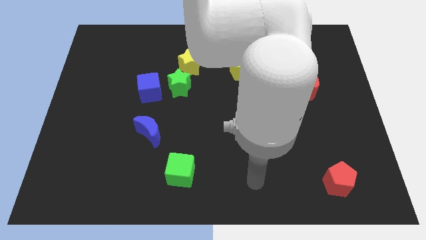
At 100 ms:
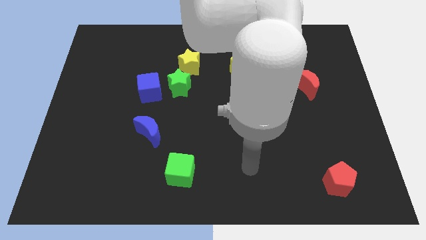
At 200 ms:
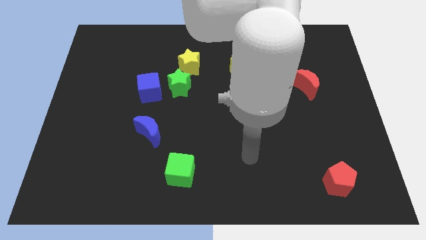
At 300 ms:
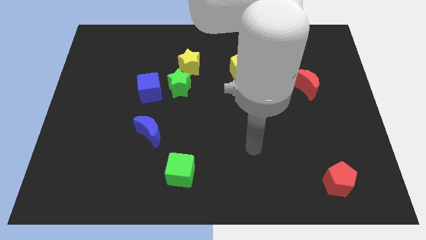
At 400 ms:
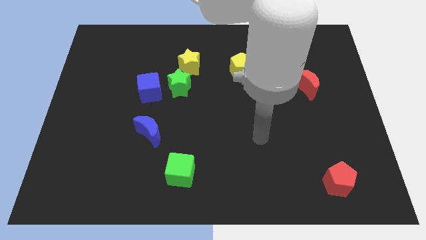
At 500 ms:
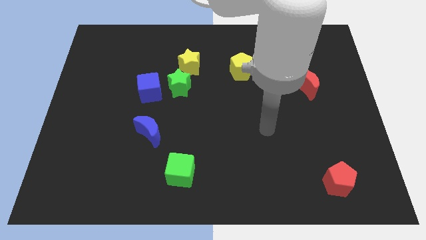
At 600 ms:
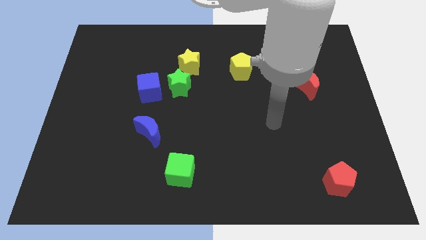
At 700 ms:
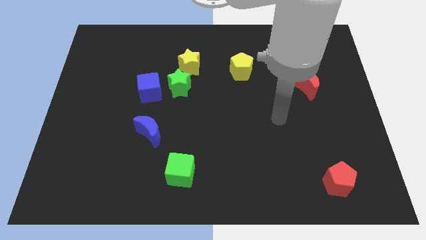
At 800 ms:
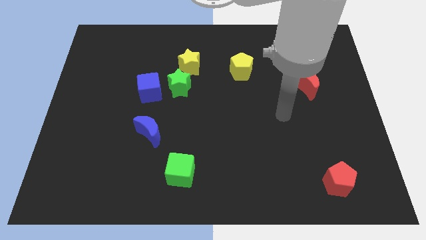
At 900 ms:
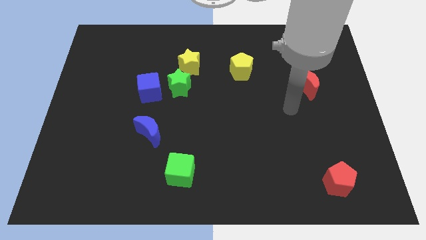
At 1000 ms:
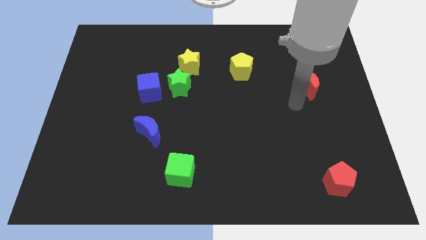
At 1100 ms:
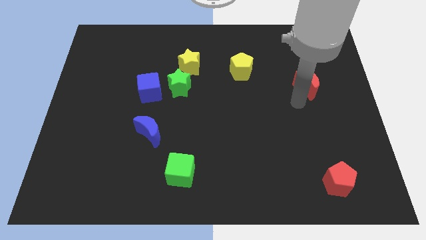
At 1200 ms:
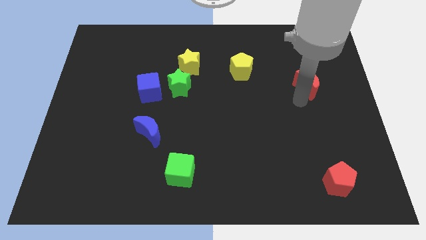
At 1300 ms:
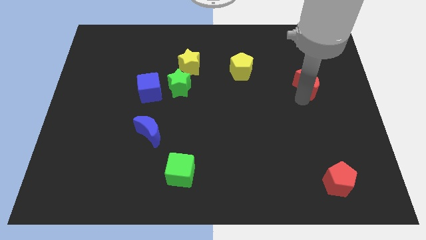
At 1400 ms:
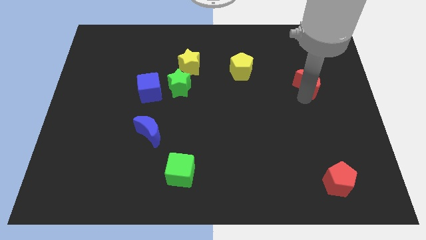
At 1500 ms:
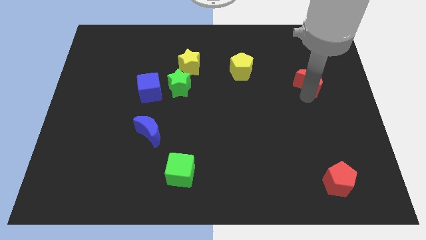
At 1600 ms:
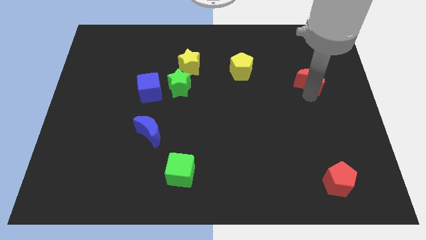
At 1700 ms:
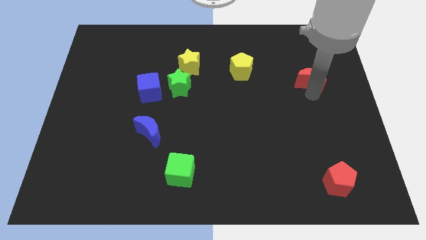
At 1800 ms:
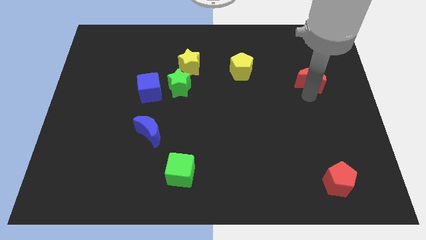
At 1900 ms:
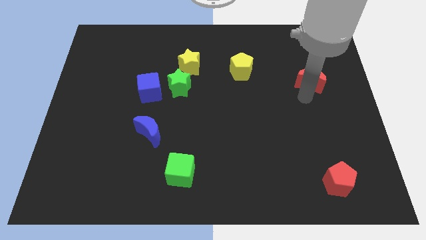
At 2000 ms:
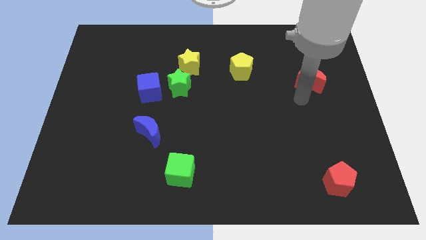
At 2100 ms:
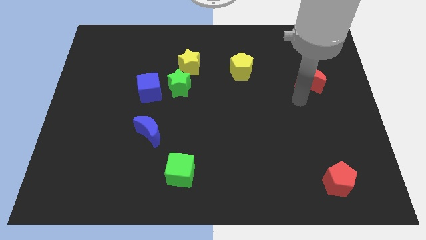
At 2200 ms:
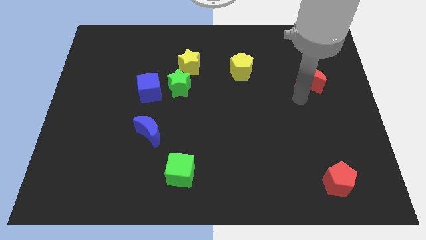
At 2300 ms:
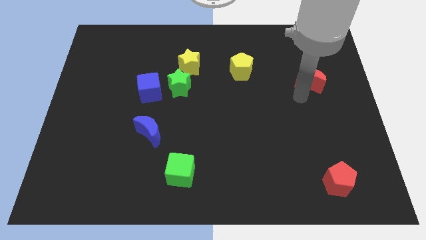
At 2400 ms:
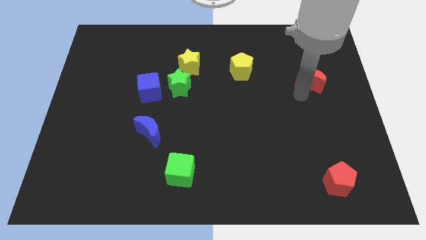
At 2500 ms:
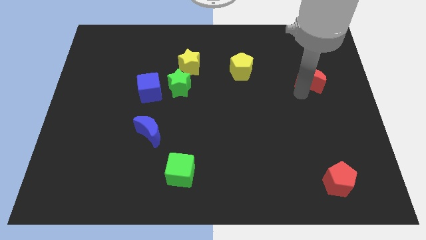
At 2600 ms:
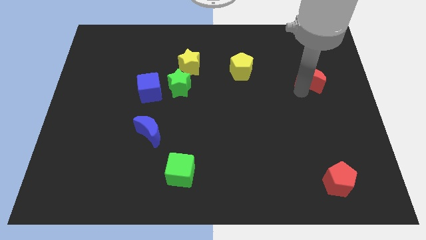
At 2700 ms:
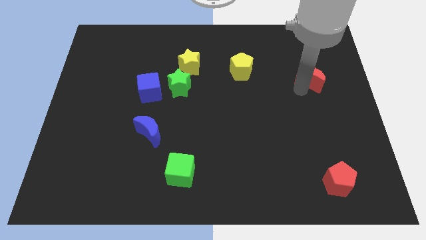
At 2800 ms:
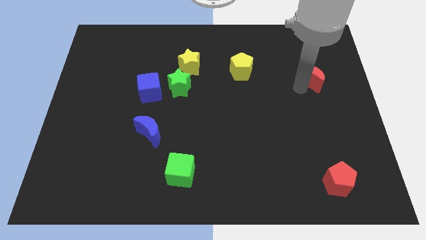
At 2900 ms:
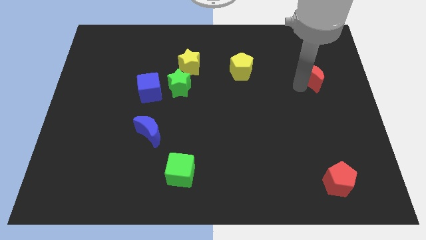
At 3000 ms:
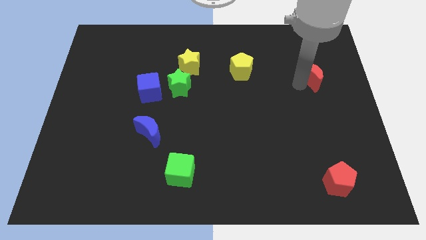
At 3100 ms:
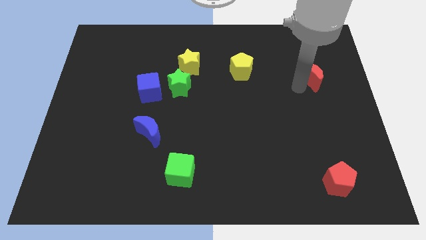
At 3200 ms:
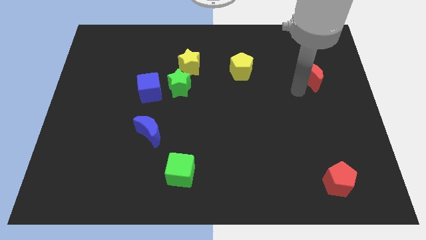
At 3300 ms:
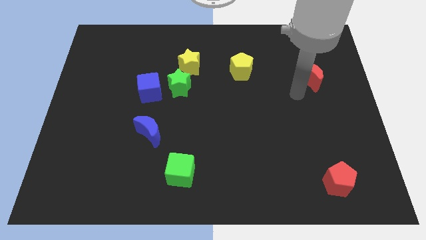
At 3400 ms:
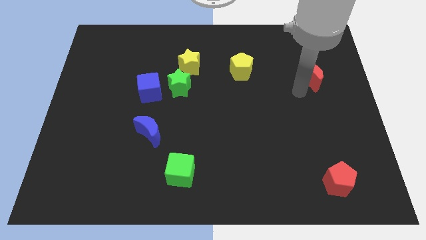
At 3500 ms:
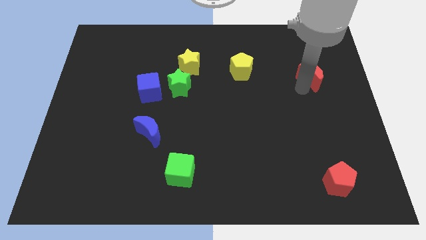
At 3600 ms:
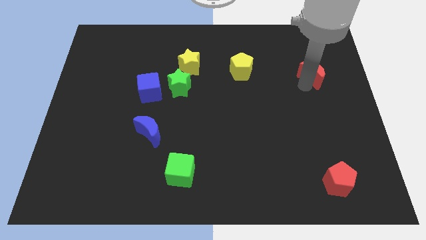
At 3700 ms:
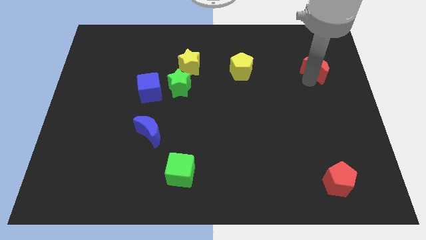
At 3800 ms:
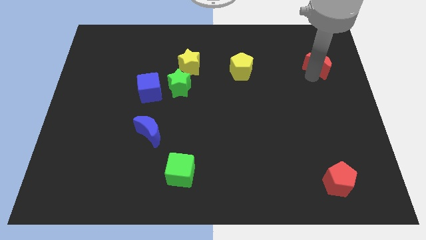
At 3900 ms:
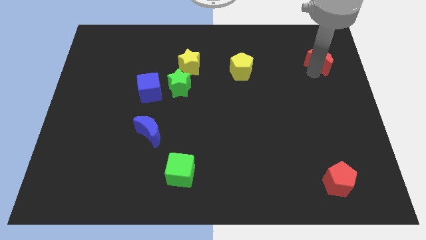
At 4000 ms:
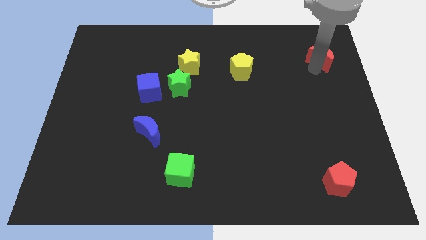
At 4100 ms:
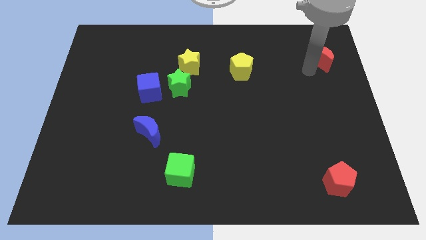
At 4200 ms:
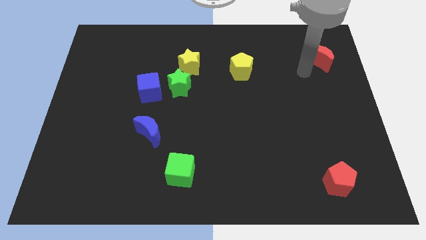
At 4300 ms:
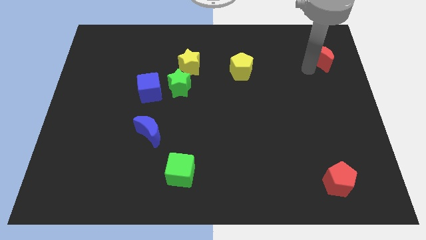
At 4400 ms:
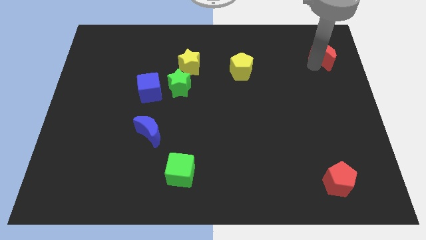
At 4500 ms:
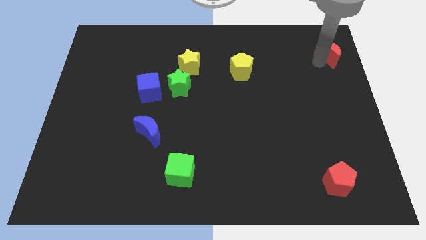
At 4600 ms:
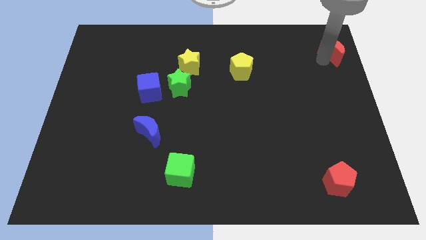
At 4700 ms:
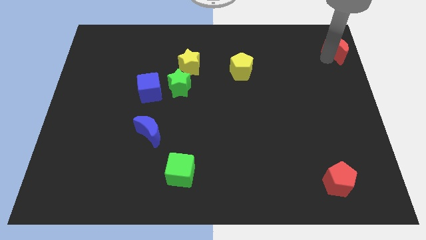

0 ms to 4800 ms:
push the red moon to the top right of the board

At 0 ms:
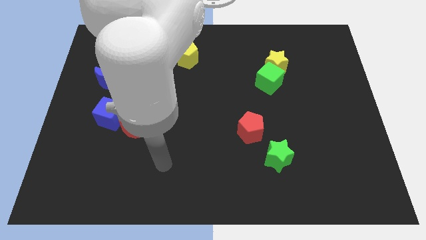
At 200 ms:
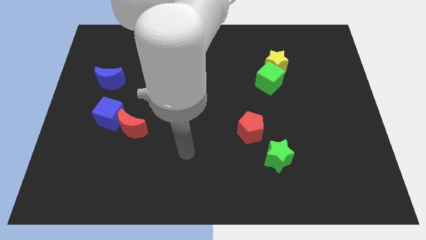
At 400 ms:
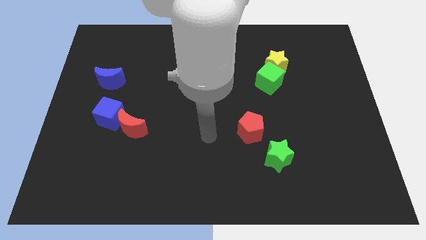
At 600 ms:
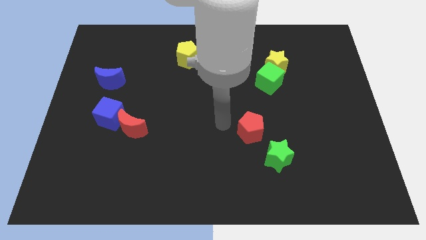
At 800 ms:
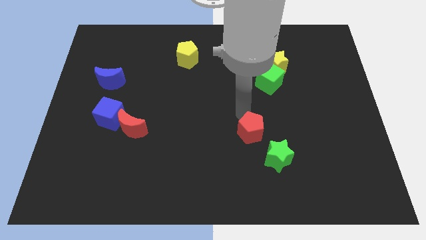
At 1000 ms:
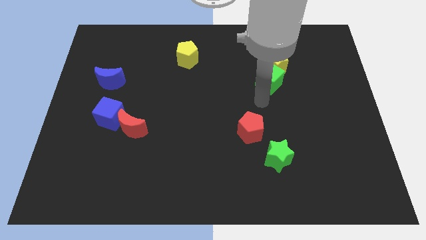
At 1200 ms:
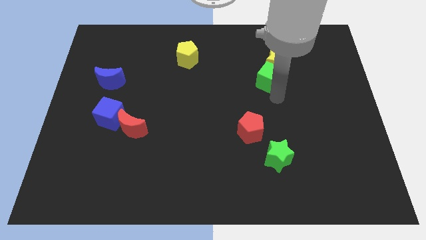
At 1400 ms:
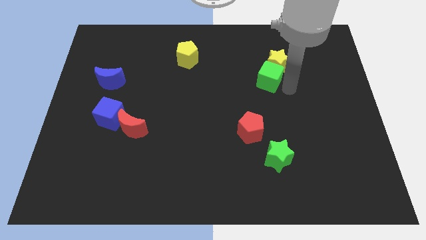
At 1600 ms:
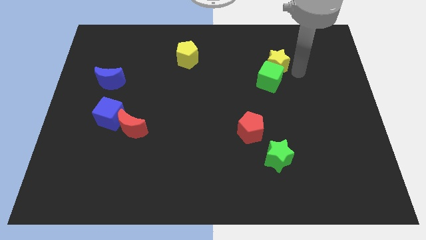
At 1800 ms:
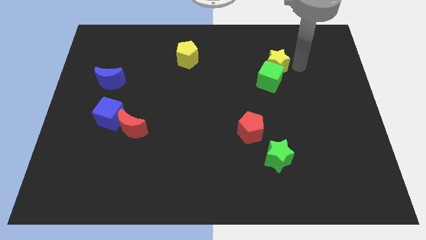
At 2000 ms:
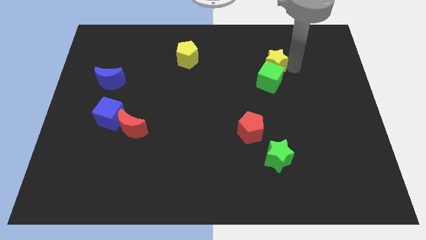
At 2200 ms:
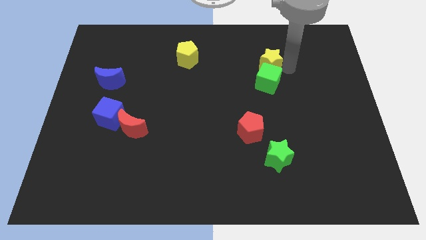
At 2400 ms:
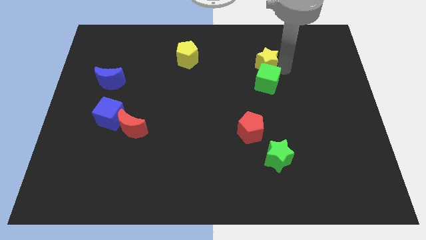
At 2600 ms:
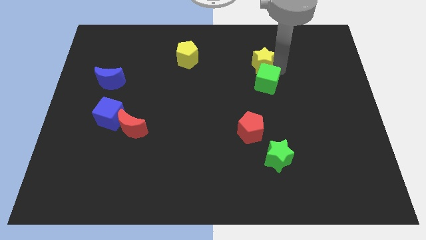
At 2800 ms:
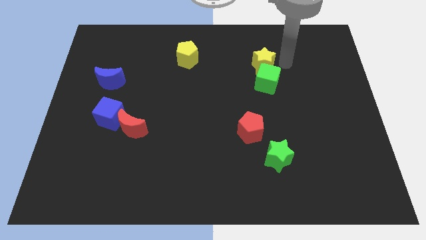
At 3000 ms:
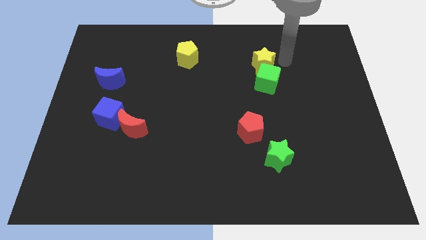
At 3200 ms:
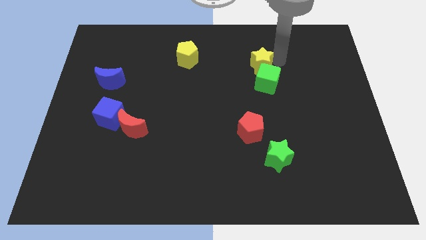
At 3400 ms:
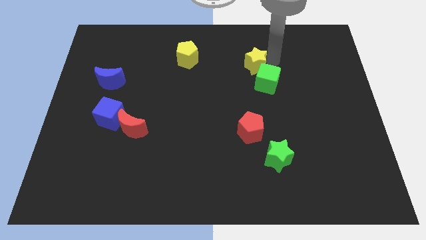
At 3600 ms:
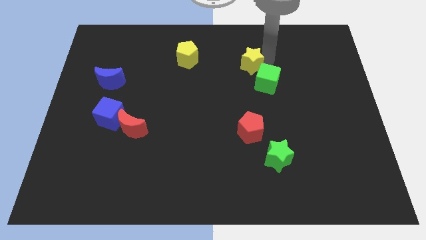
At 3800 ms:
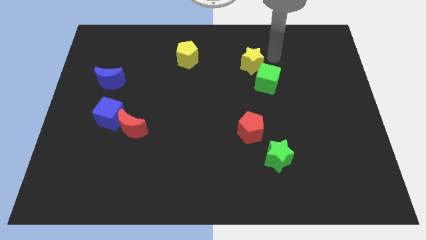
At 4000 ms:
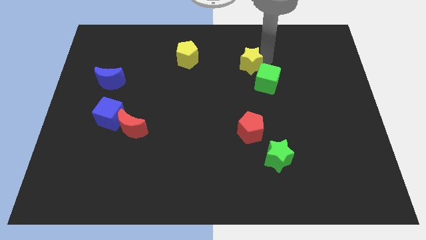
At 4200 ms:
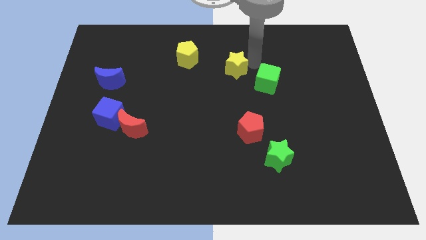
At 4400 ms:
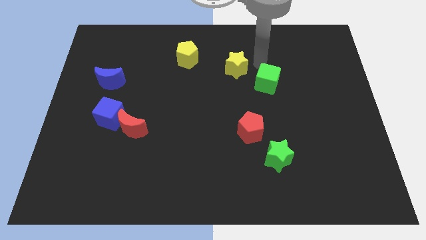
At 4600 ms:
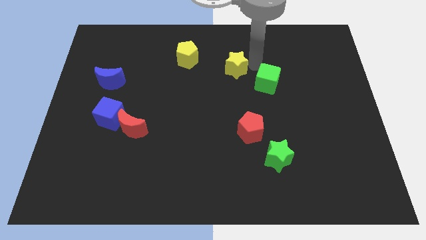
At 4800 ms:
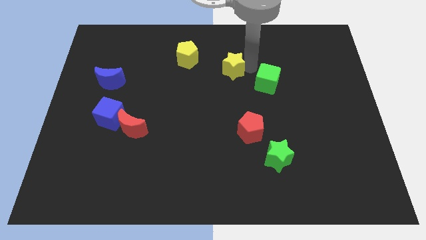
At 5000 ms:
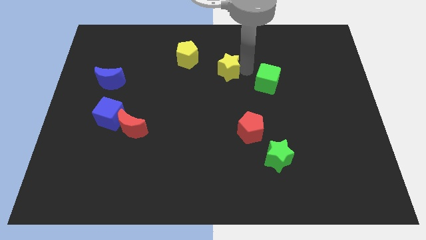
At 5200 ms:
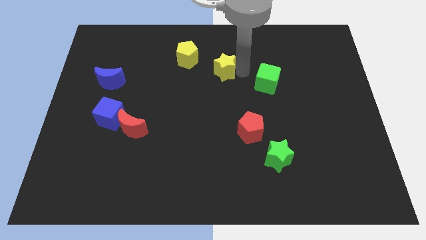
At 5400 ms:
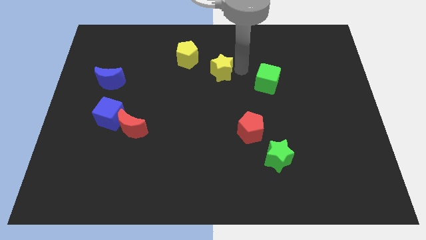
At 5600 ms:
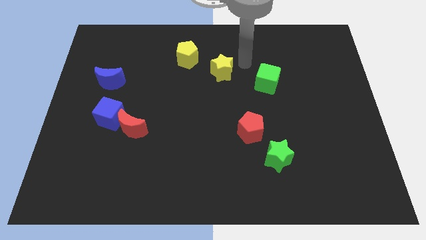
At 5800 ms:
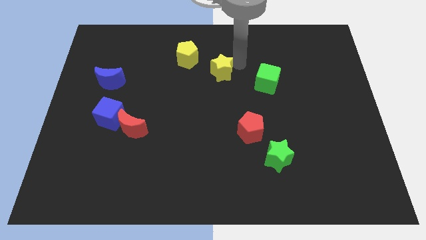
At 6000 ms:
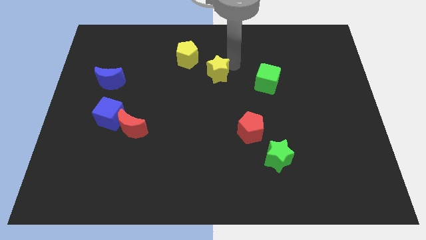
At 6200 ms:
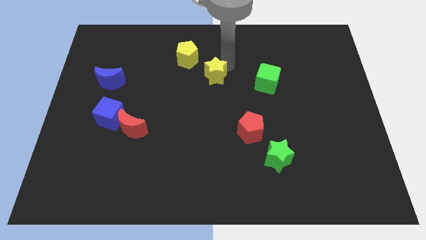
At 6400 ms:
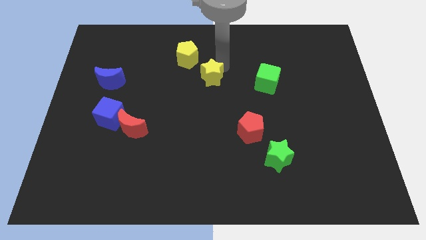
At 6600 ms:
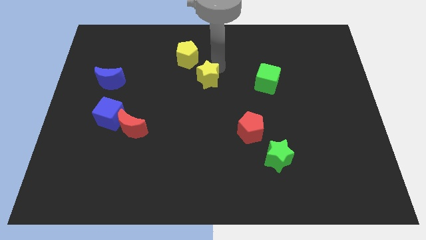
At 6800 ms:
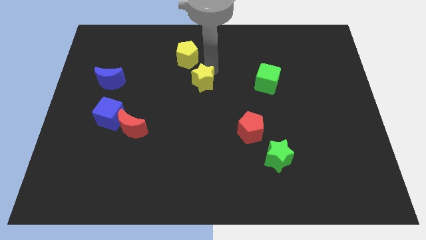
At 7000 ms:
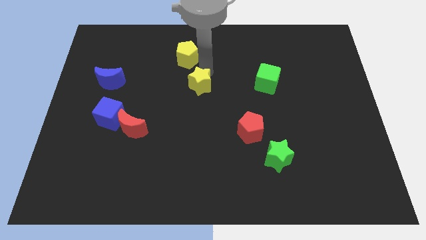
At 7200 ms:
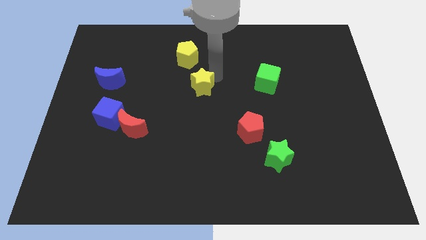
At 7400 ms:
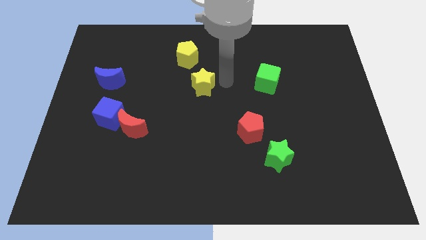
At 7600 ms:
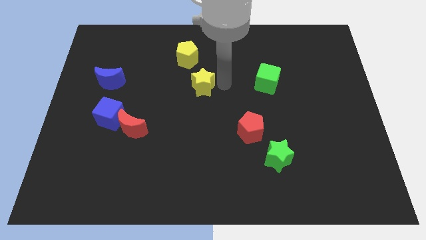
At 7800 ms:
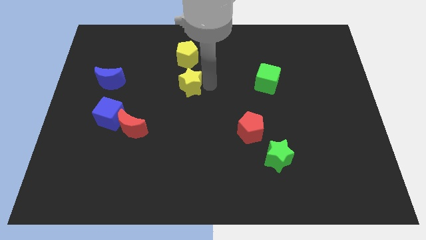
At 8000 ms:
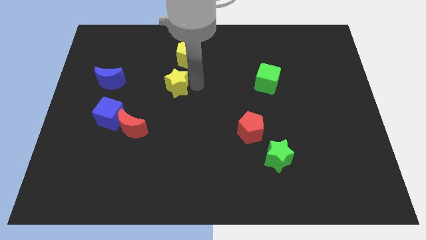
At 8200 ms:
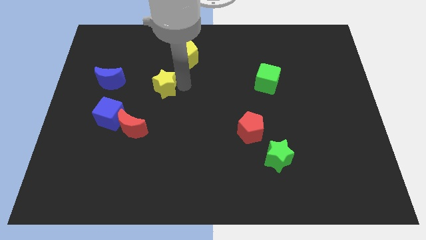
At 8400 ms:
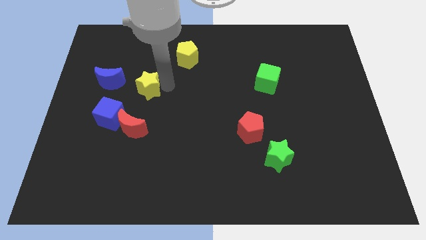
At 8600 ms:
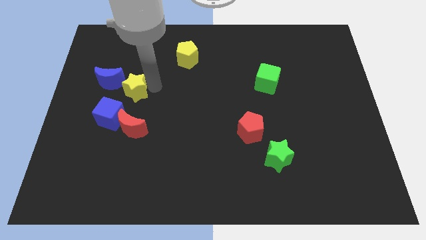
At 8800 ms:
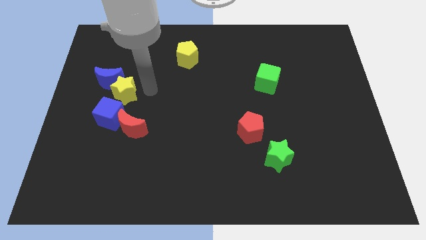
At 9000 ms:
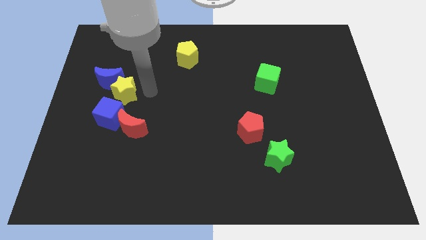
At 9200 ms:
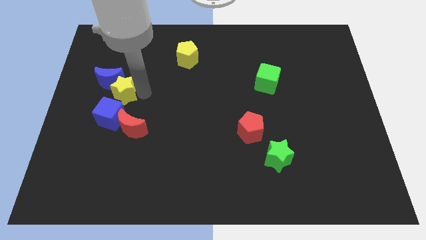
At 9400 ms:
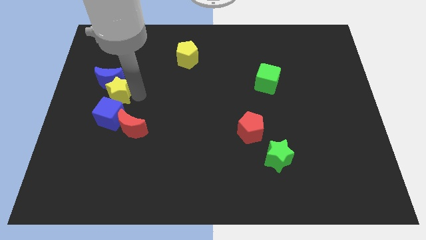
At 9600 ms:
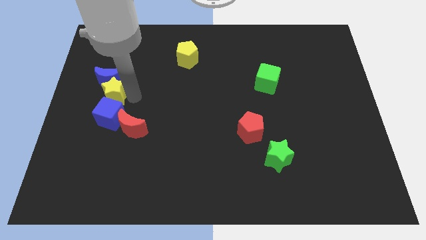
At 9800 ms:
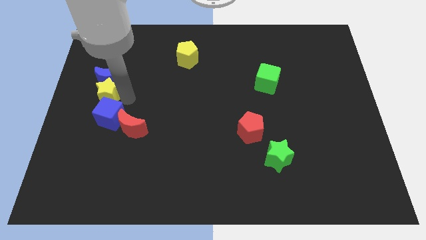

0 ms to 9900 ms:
push the yellow star to the left side
